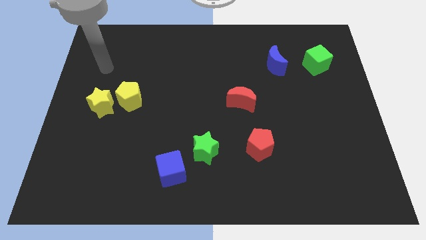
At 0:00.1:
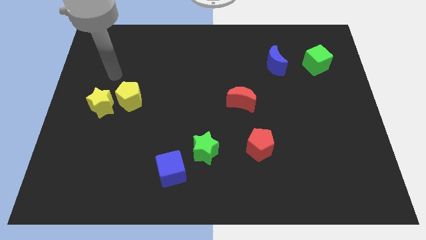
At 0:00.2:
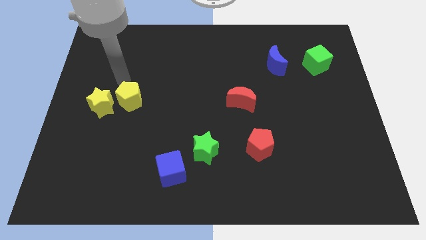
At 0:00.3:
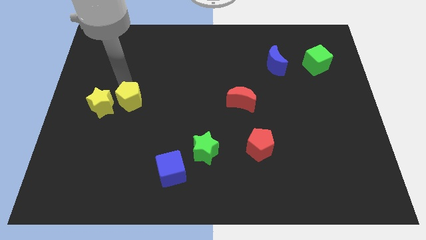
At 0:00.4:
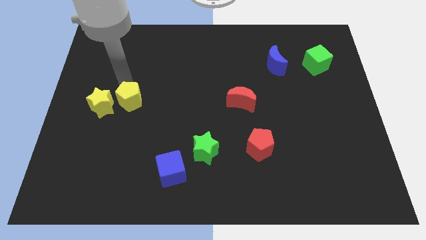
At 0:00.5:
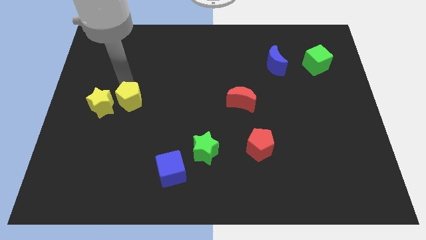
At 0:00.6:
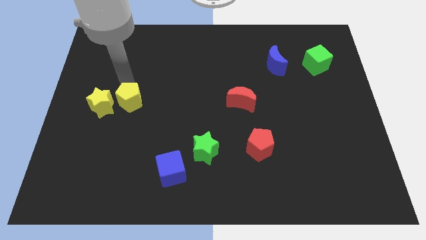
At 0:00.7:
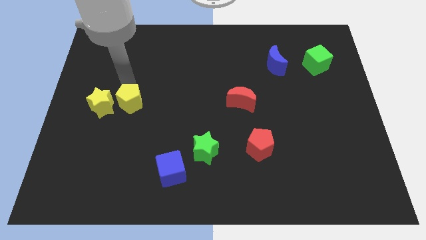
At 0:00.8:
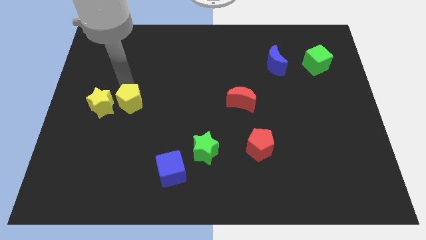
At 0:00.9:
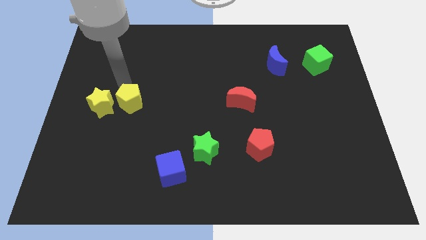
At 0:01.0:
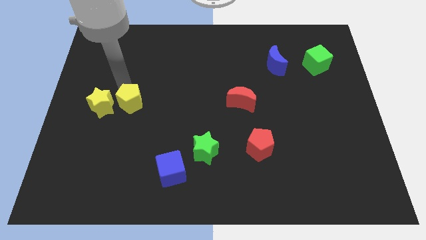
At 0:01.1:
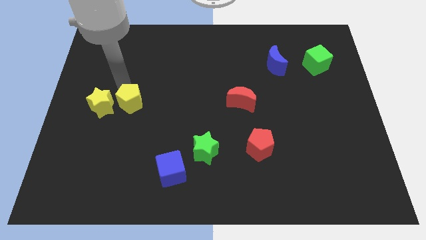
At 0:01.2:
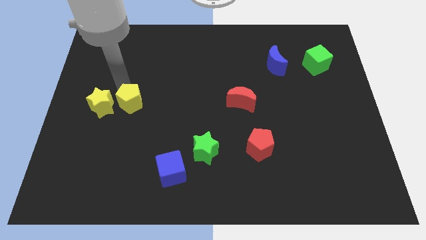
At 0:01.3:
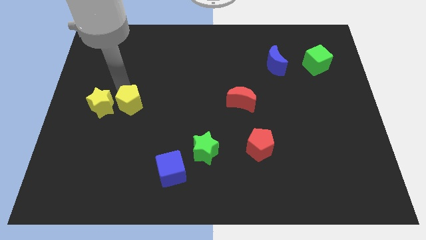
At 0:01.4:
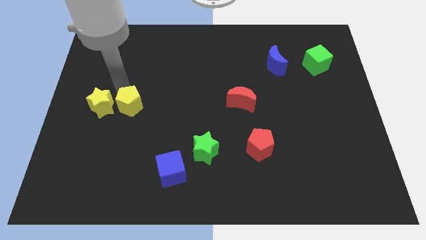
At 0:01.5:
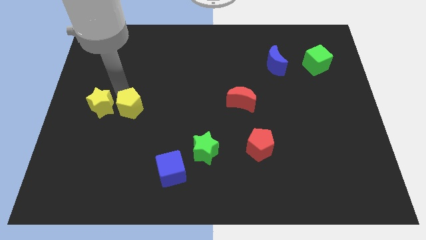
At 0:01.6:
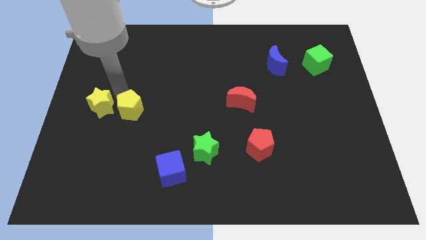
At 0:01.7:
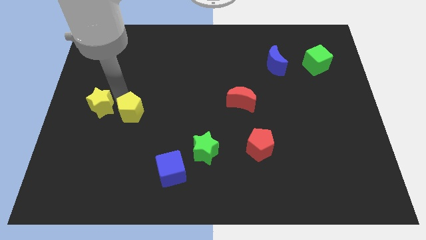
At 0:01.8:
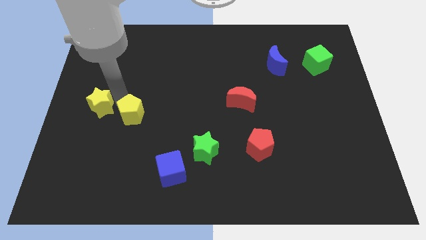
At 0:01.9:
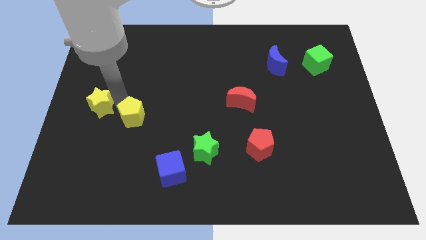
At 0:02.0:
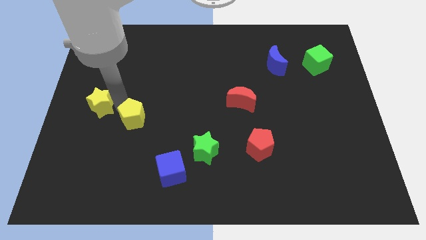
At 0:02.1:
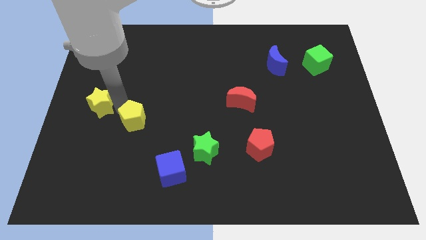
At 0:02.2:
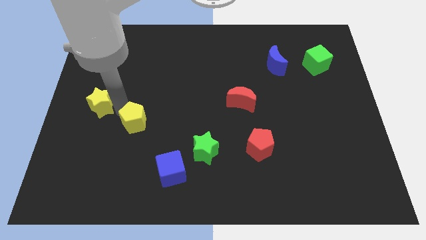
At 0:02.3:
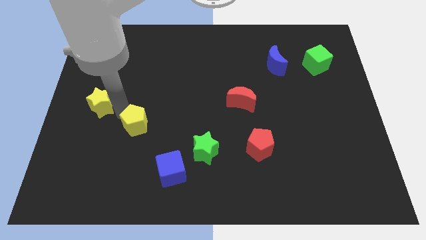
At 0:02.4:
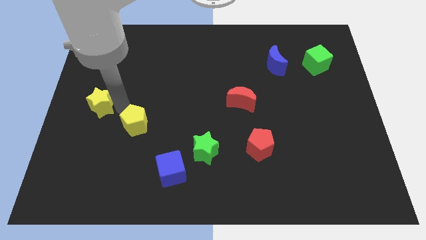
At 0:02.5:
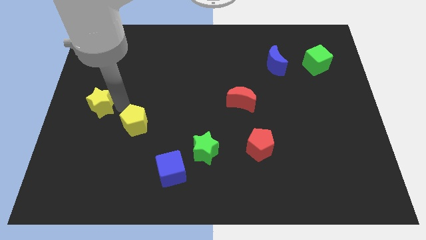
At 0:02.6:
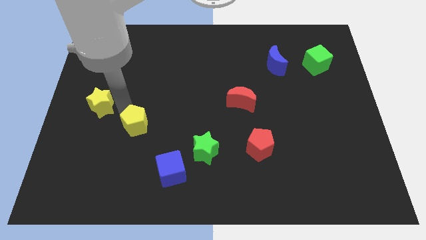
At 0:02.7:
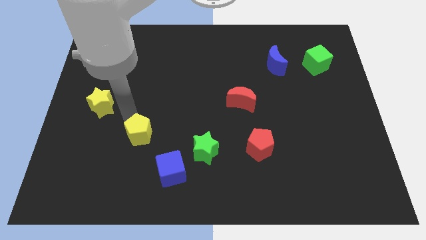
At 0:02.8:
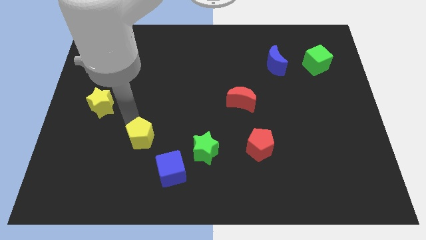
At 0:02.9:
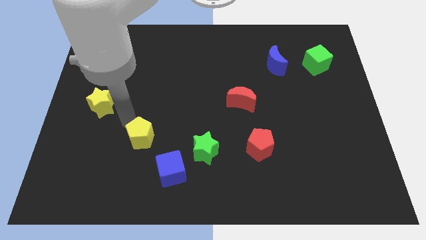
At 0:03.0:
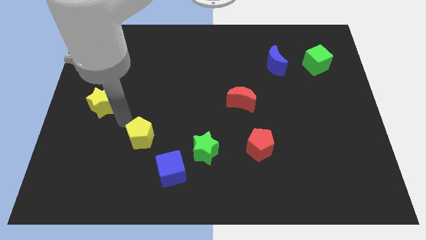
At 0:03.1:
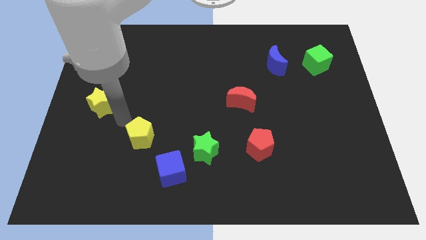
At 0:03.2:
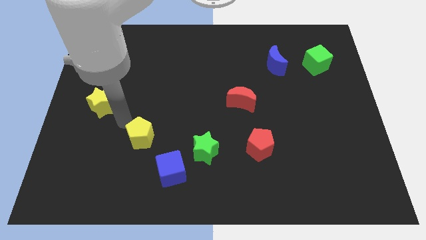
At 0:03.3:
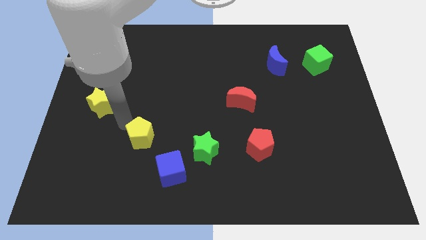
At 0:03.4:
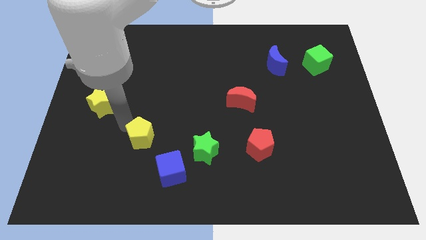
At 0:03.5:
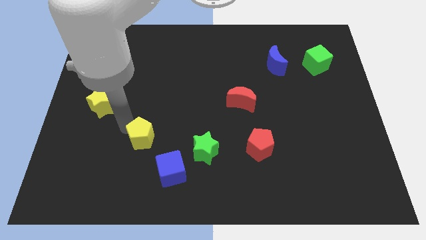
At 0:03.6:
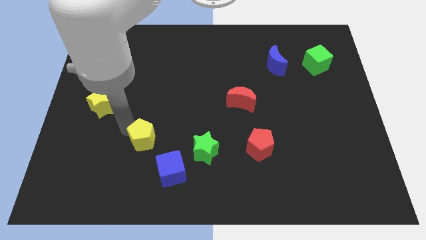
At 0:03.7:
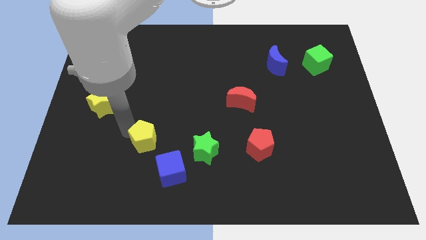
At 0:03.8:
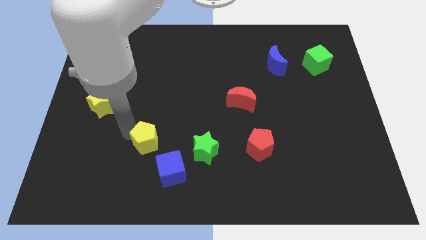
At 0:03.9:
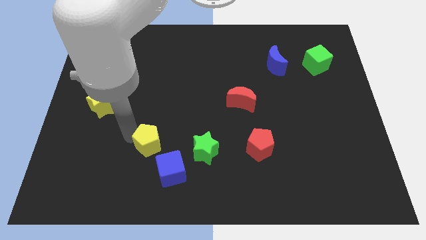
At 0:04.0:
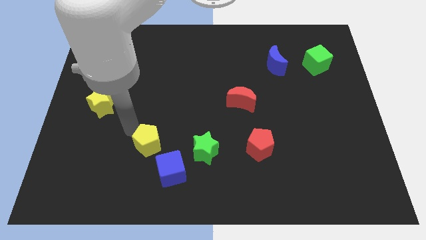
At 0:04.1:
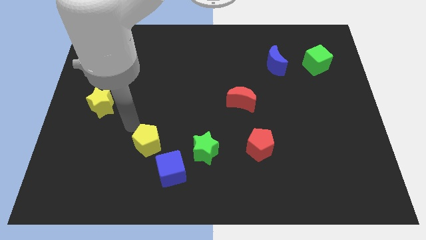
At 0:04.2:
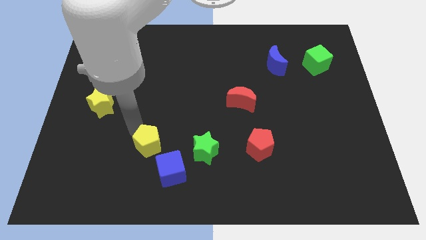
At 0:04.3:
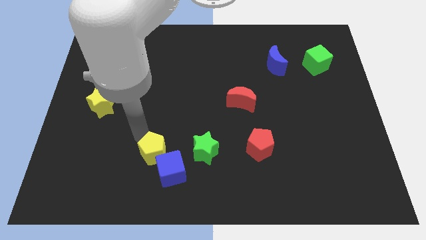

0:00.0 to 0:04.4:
push the yellow pentagon to the blue cube

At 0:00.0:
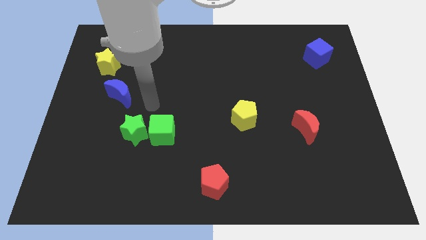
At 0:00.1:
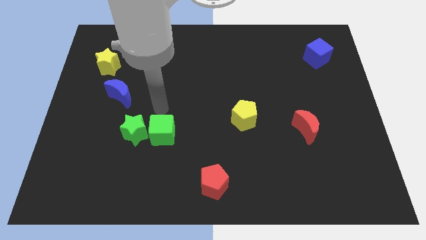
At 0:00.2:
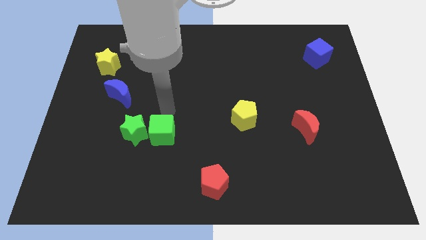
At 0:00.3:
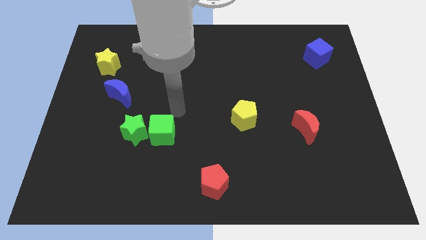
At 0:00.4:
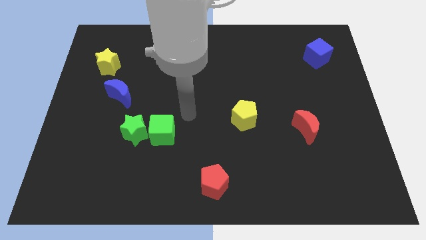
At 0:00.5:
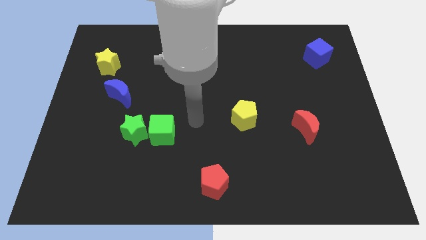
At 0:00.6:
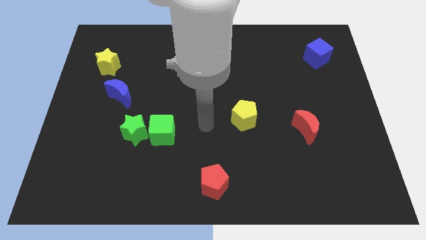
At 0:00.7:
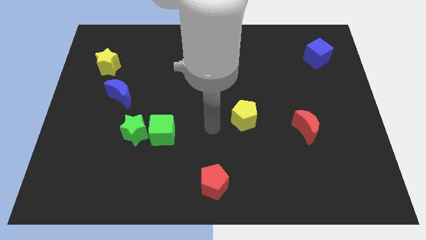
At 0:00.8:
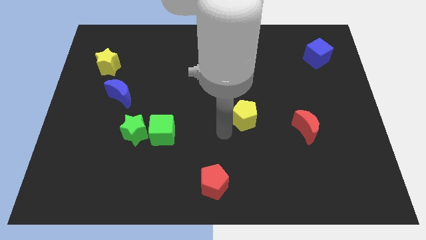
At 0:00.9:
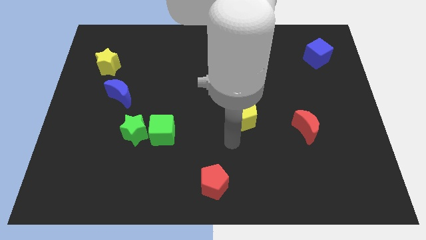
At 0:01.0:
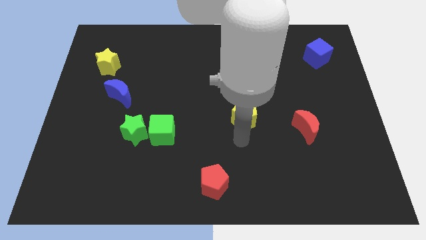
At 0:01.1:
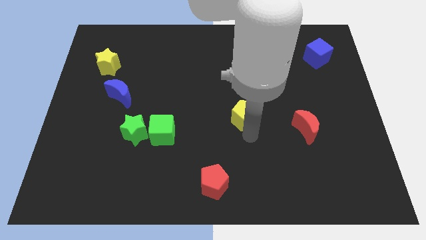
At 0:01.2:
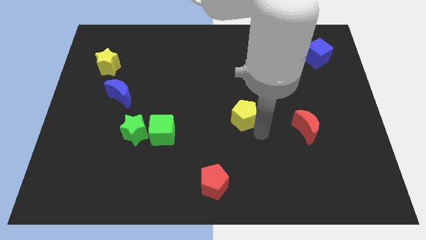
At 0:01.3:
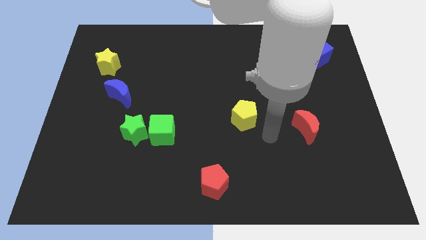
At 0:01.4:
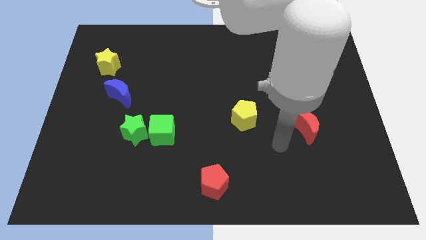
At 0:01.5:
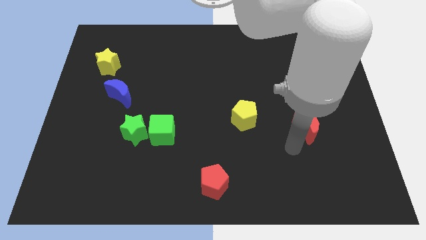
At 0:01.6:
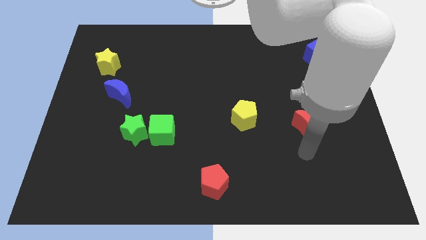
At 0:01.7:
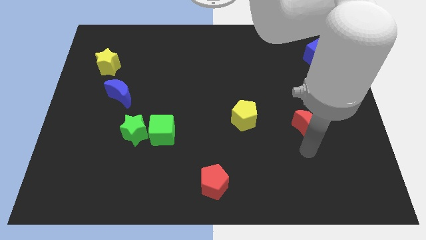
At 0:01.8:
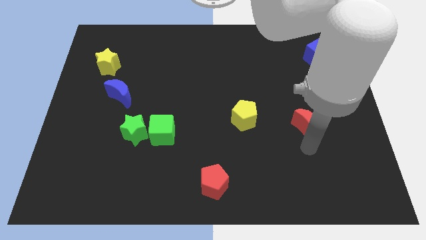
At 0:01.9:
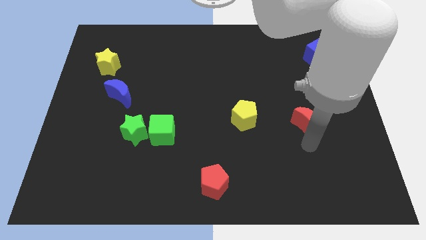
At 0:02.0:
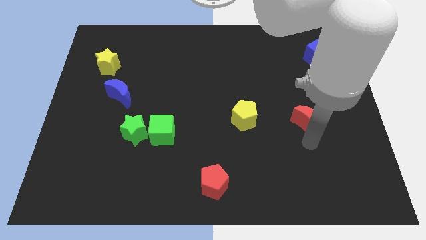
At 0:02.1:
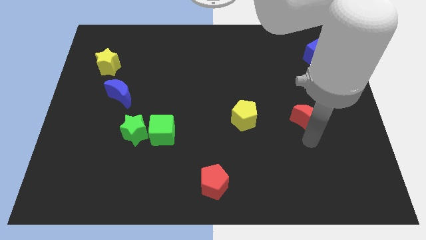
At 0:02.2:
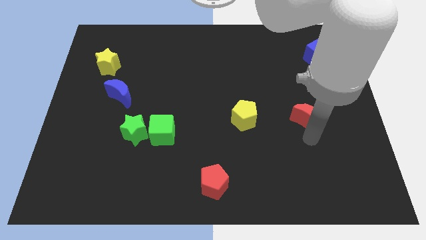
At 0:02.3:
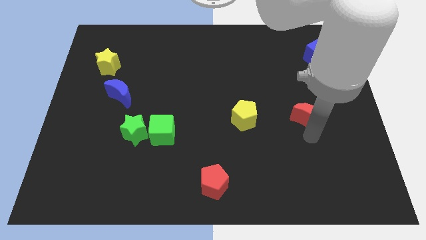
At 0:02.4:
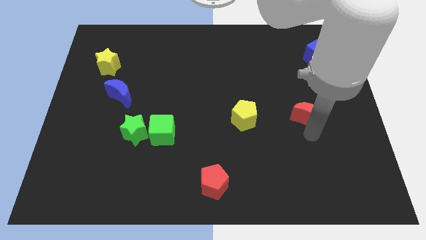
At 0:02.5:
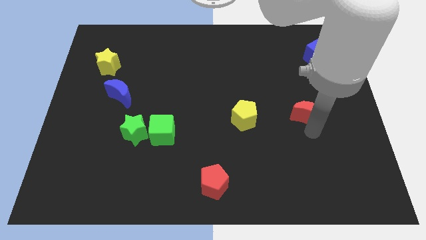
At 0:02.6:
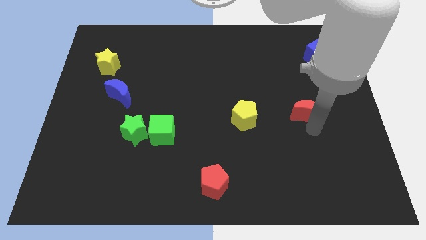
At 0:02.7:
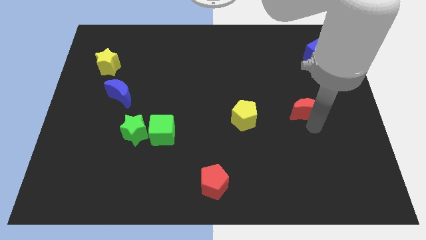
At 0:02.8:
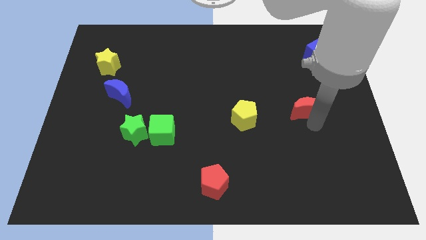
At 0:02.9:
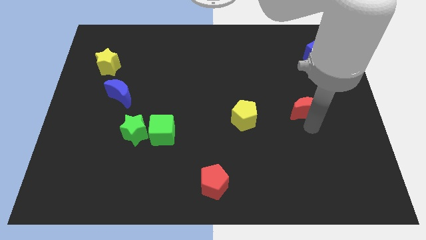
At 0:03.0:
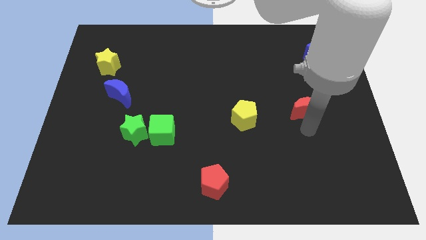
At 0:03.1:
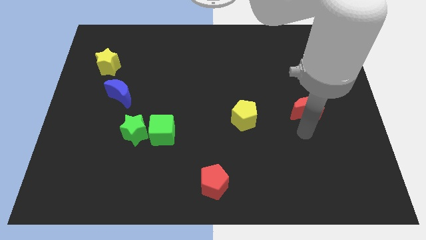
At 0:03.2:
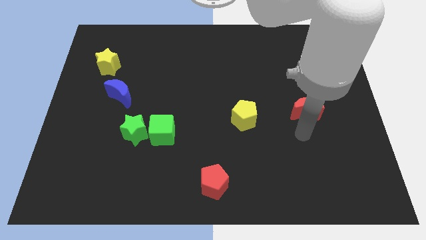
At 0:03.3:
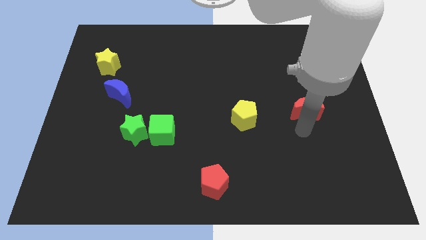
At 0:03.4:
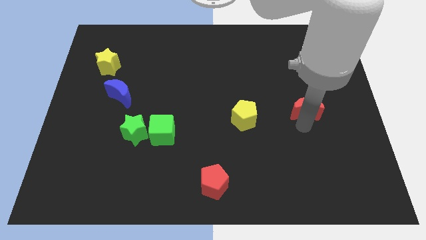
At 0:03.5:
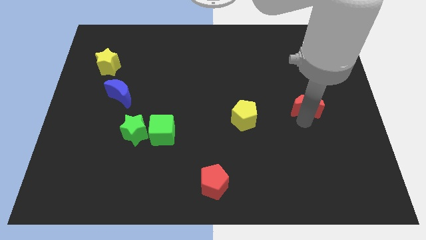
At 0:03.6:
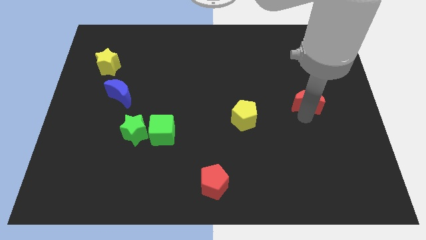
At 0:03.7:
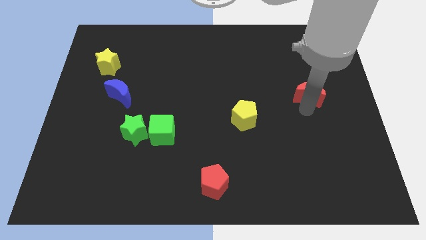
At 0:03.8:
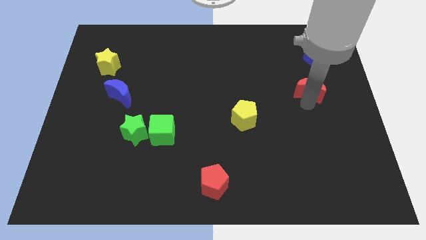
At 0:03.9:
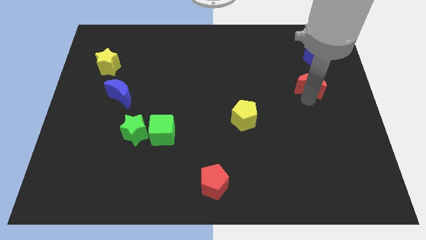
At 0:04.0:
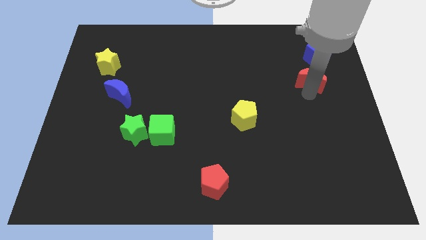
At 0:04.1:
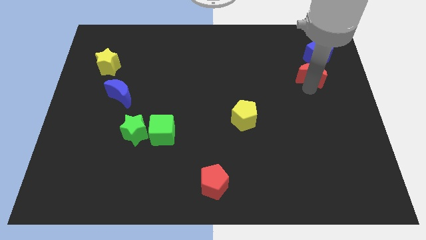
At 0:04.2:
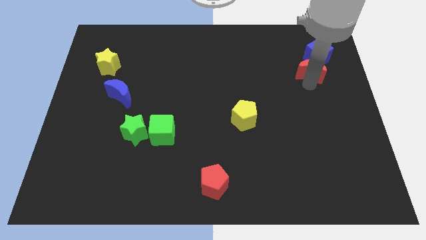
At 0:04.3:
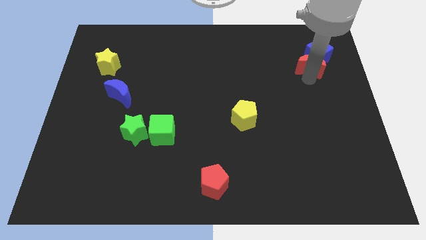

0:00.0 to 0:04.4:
push the red moon to the blue cube
